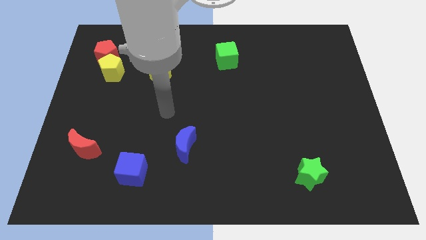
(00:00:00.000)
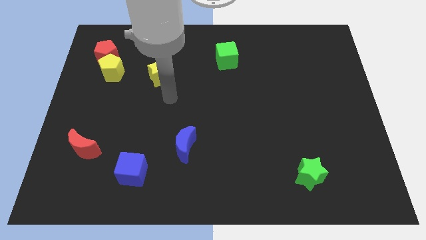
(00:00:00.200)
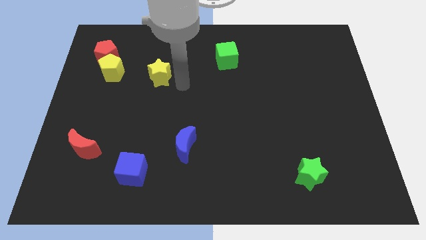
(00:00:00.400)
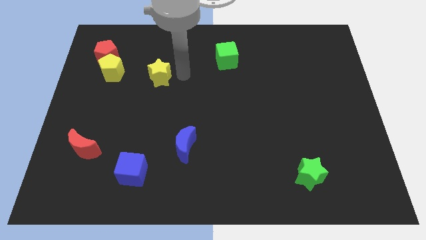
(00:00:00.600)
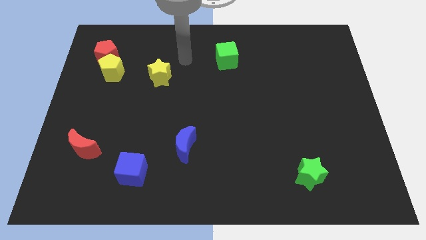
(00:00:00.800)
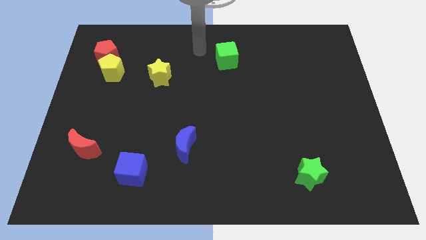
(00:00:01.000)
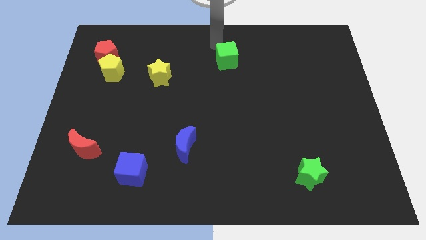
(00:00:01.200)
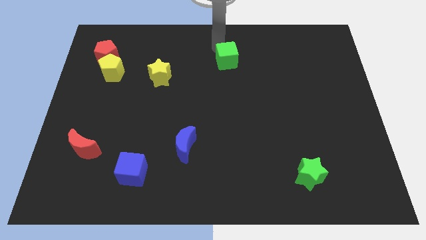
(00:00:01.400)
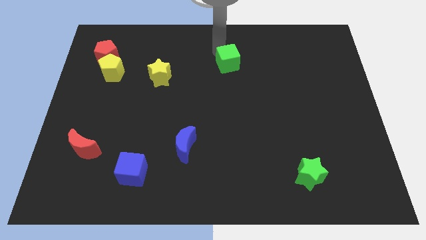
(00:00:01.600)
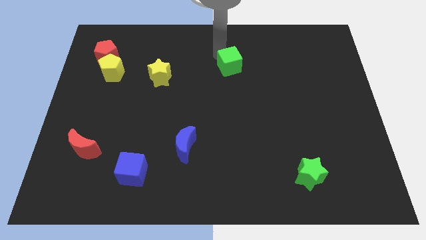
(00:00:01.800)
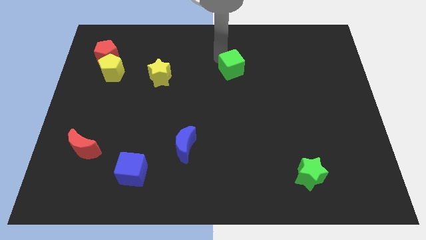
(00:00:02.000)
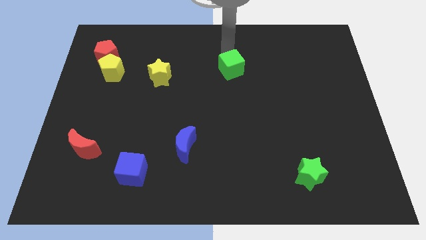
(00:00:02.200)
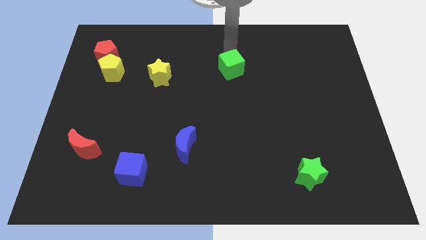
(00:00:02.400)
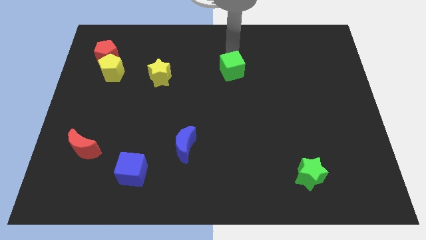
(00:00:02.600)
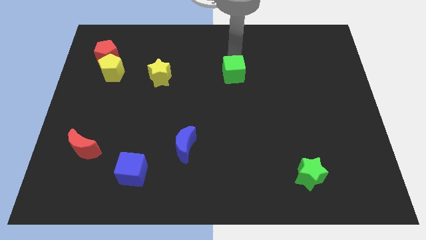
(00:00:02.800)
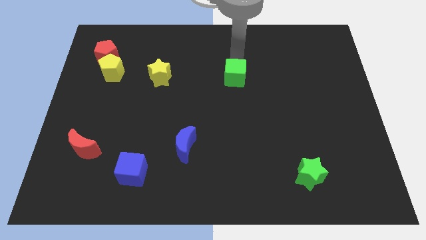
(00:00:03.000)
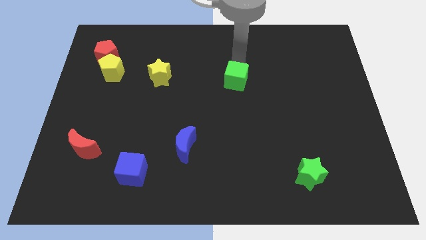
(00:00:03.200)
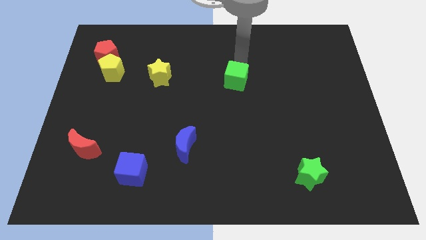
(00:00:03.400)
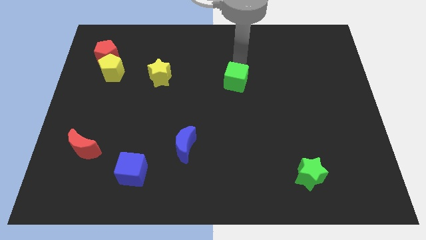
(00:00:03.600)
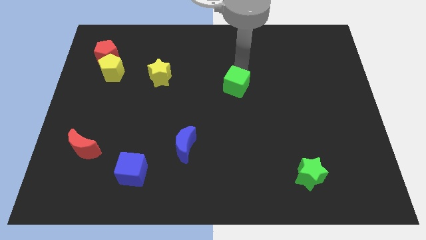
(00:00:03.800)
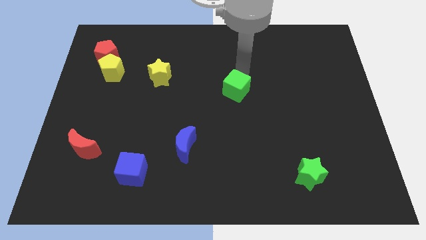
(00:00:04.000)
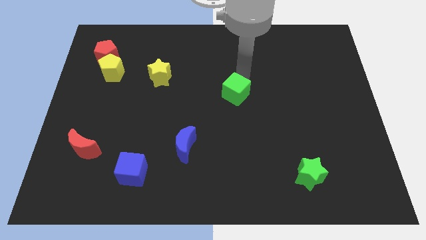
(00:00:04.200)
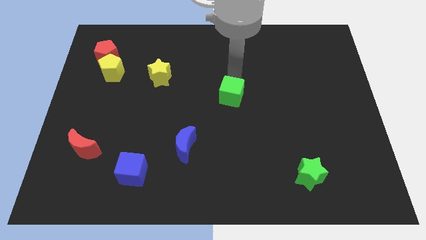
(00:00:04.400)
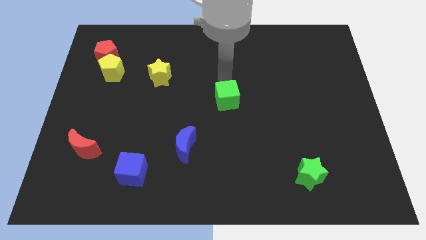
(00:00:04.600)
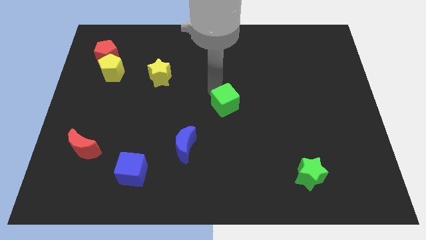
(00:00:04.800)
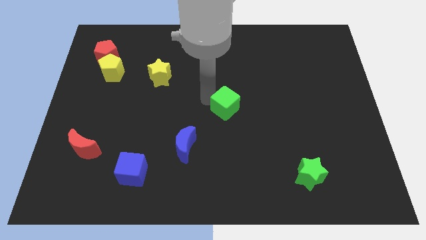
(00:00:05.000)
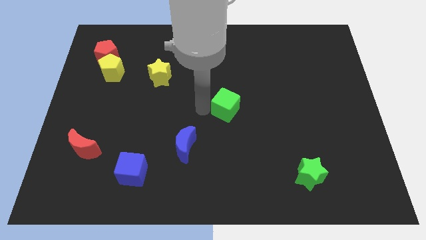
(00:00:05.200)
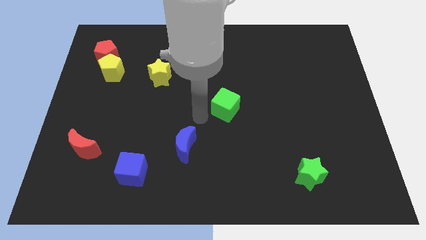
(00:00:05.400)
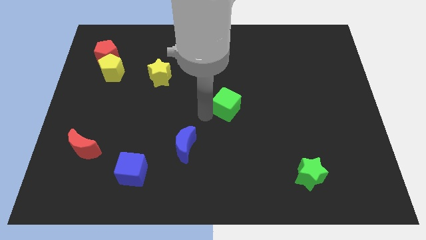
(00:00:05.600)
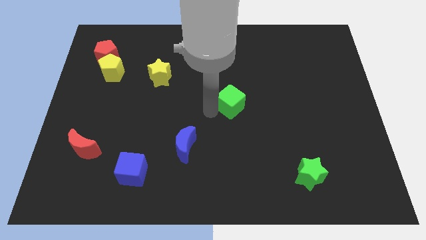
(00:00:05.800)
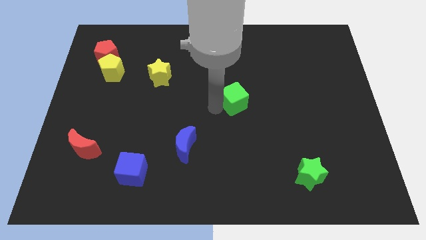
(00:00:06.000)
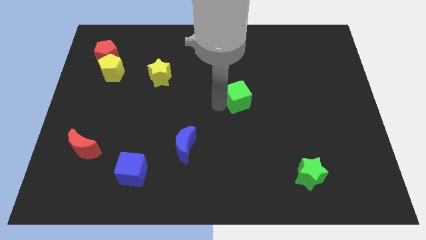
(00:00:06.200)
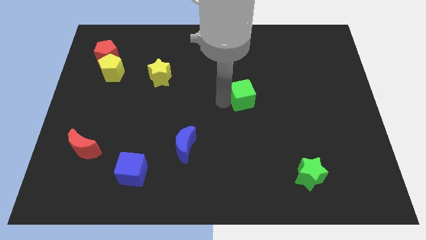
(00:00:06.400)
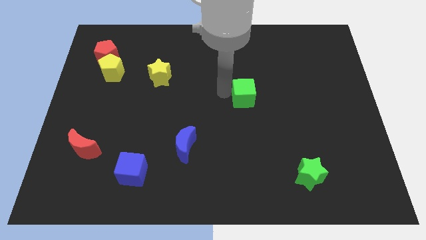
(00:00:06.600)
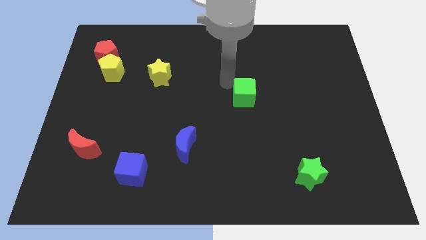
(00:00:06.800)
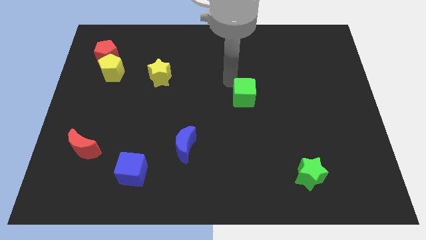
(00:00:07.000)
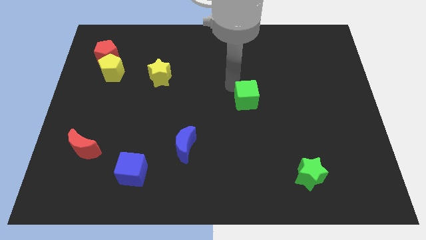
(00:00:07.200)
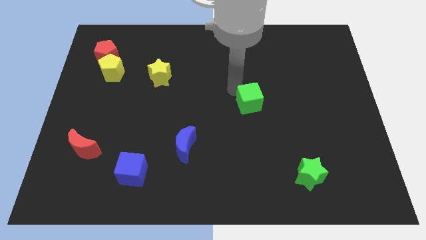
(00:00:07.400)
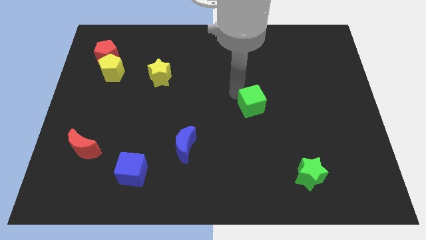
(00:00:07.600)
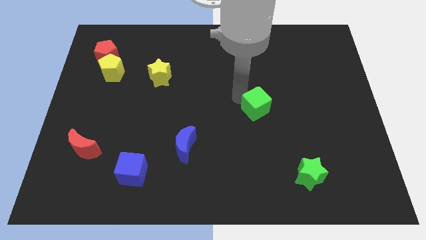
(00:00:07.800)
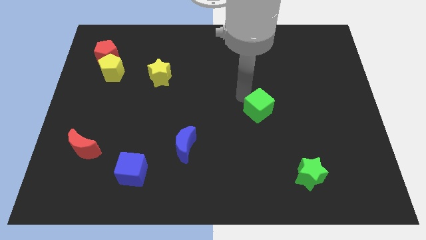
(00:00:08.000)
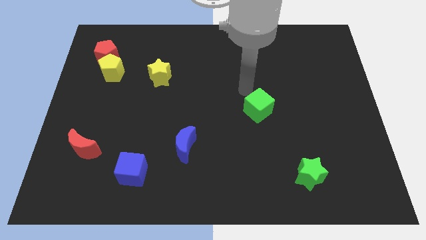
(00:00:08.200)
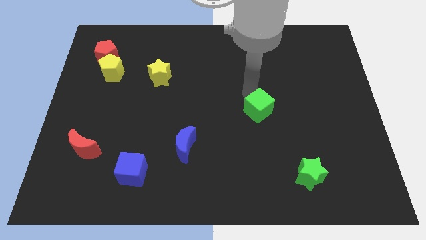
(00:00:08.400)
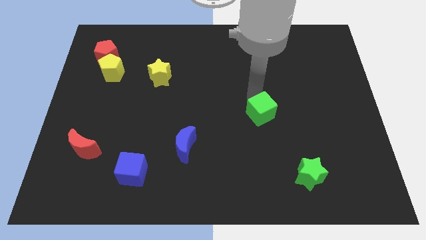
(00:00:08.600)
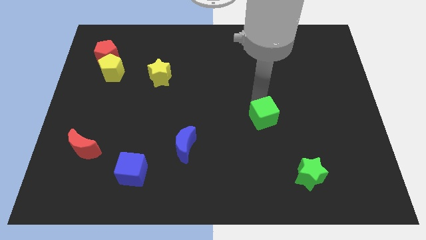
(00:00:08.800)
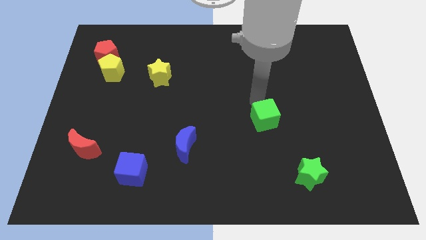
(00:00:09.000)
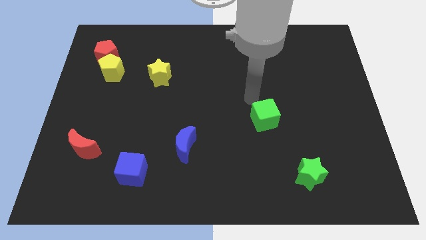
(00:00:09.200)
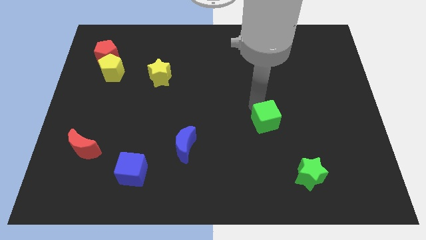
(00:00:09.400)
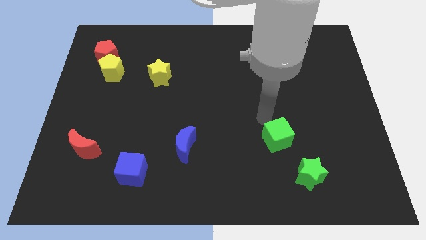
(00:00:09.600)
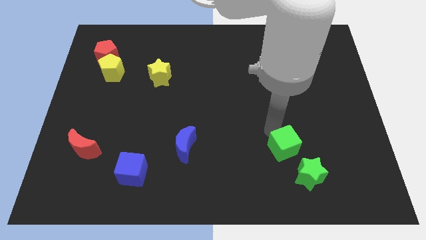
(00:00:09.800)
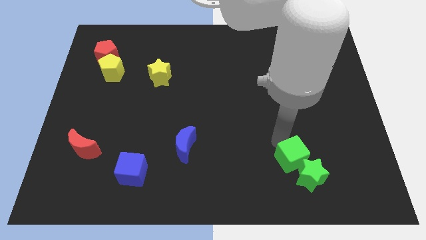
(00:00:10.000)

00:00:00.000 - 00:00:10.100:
put the green cube to the green star

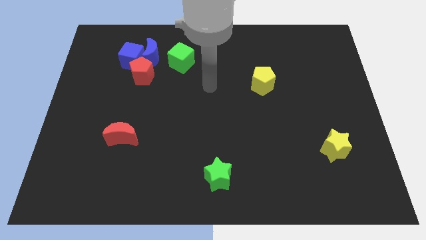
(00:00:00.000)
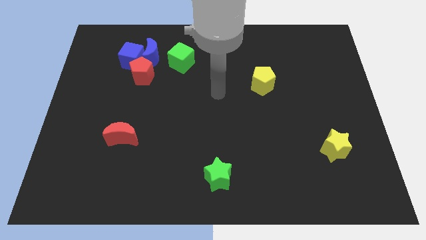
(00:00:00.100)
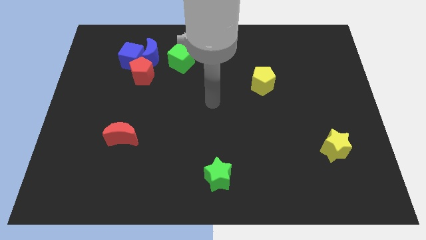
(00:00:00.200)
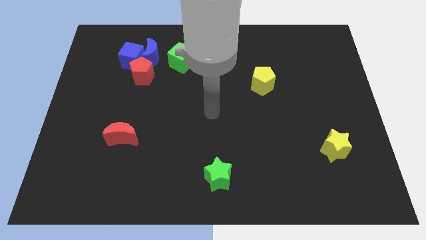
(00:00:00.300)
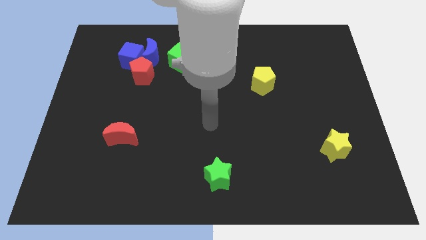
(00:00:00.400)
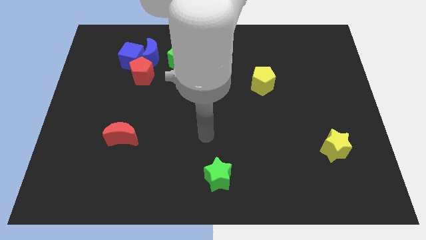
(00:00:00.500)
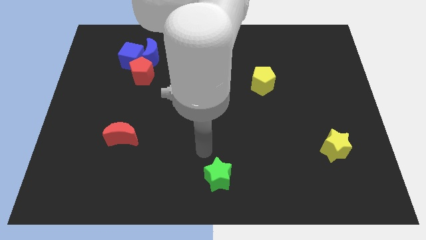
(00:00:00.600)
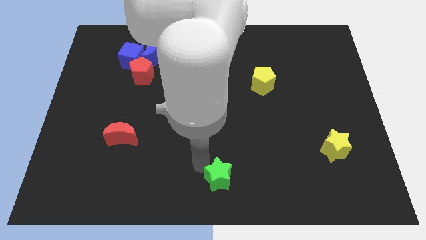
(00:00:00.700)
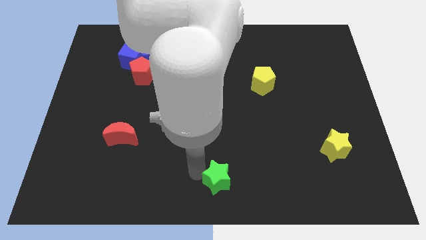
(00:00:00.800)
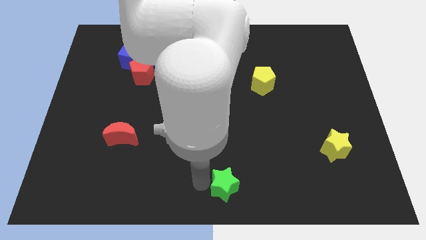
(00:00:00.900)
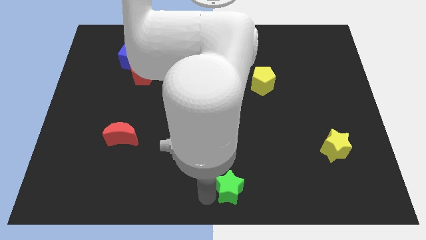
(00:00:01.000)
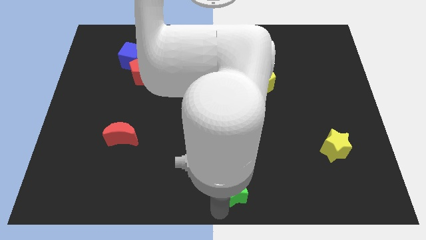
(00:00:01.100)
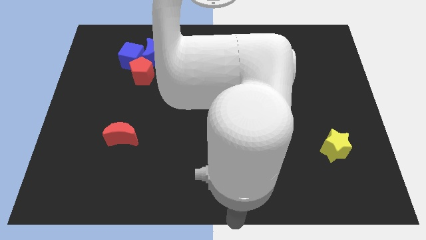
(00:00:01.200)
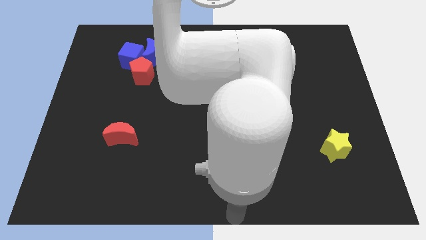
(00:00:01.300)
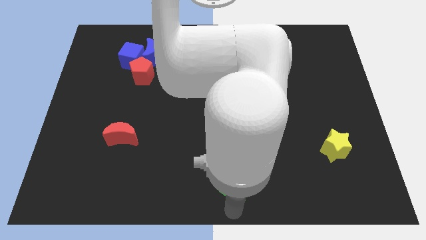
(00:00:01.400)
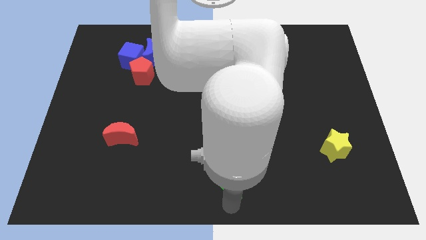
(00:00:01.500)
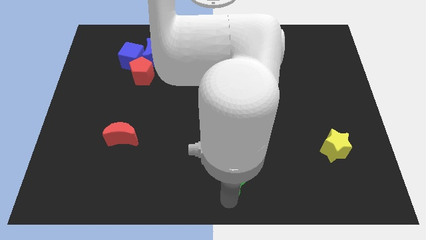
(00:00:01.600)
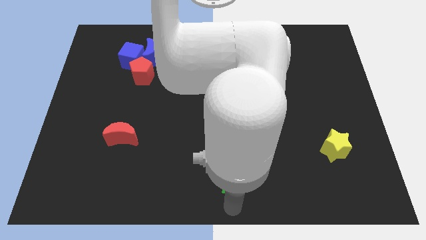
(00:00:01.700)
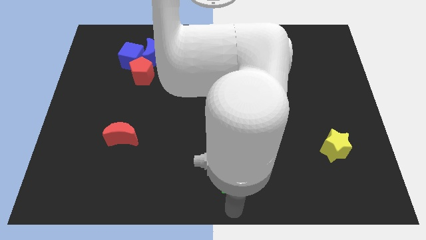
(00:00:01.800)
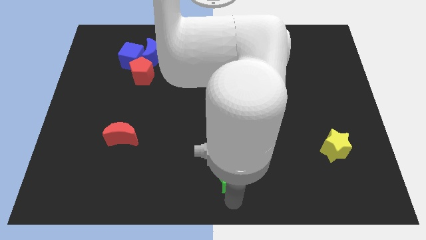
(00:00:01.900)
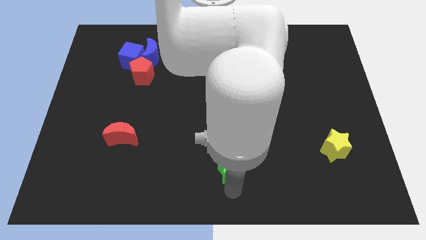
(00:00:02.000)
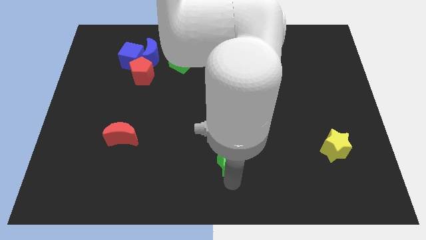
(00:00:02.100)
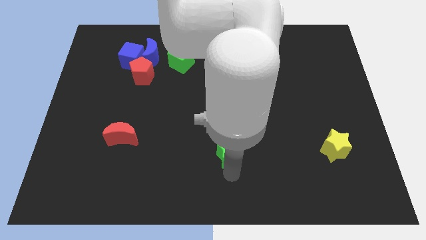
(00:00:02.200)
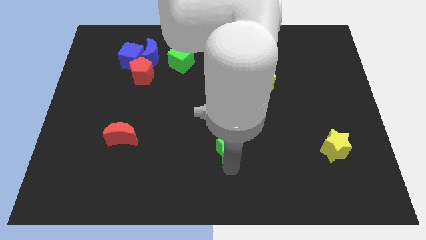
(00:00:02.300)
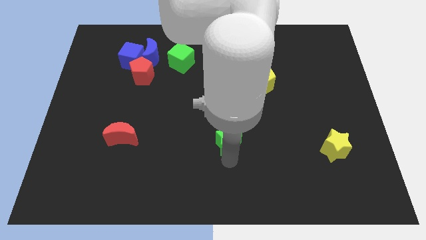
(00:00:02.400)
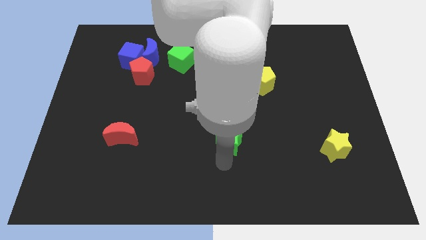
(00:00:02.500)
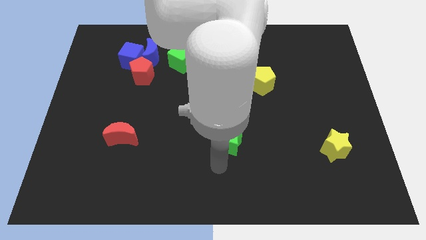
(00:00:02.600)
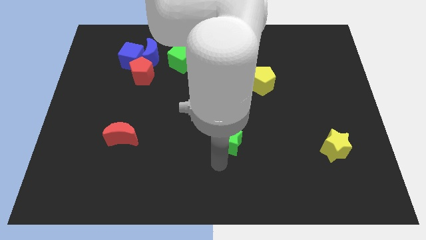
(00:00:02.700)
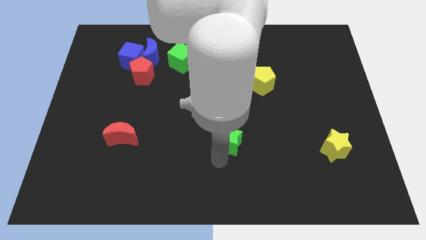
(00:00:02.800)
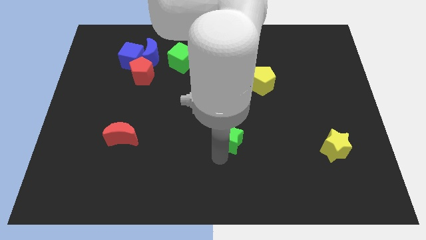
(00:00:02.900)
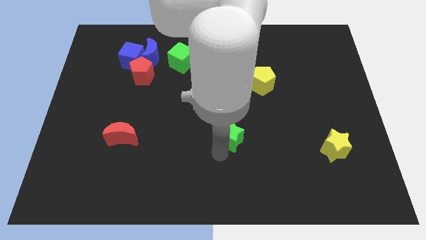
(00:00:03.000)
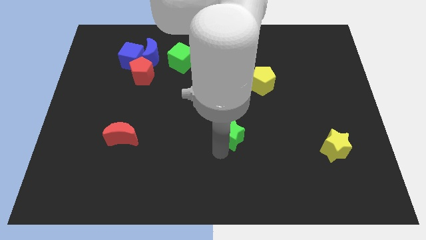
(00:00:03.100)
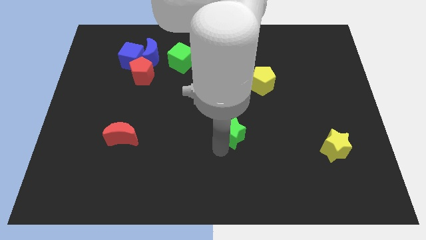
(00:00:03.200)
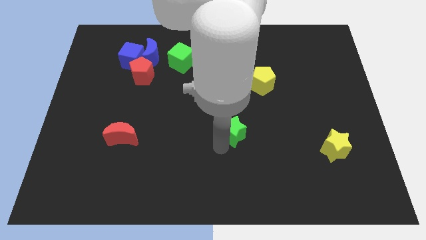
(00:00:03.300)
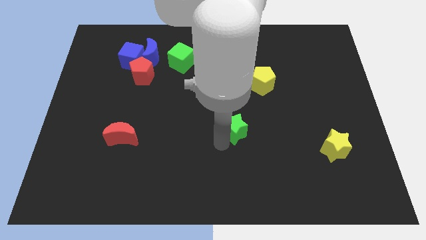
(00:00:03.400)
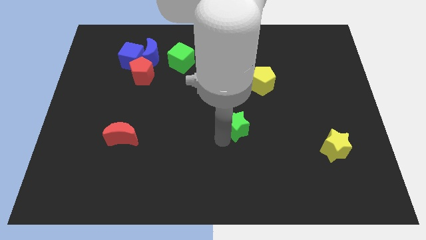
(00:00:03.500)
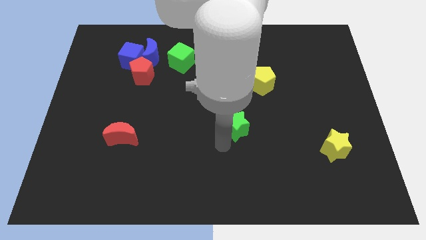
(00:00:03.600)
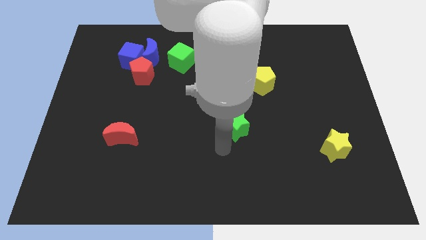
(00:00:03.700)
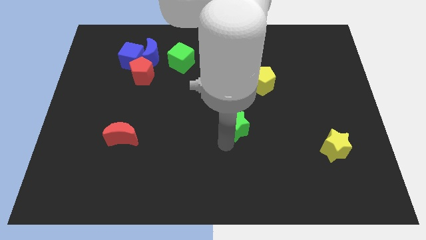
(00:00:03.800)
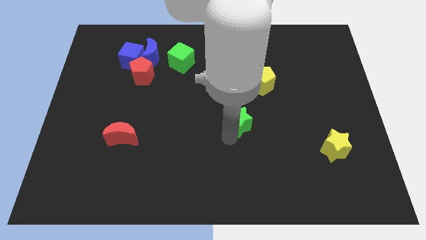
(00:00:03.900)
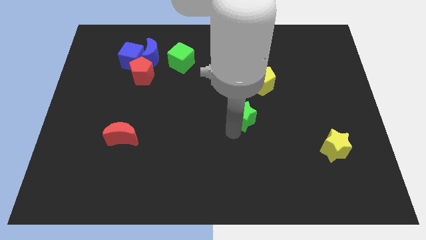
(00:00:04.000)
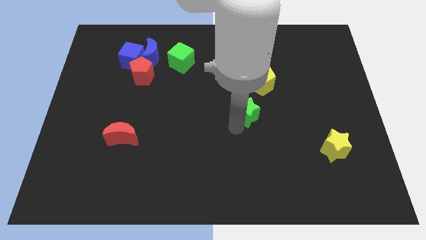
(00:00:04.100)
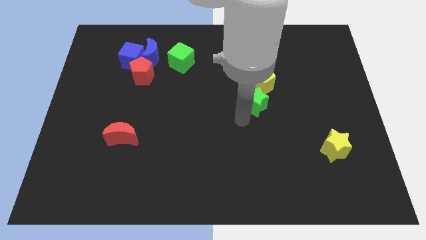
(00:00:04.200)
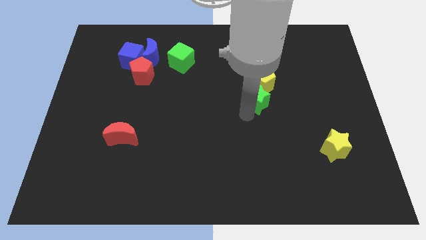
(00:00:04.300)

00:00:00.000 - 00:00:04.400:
push the green star towards the yellow pentagon
